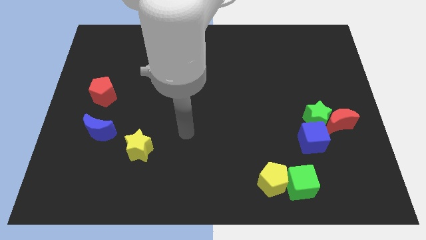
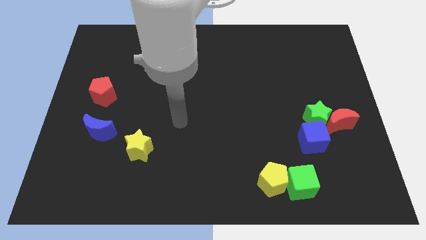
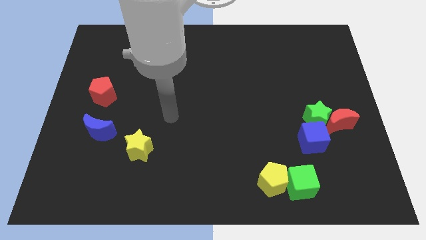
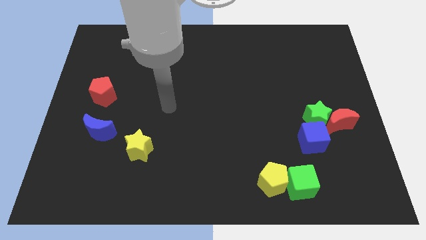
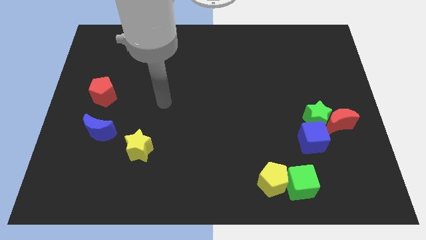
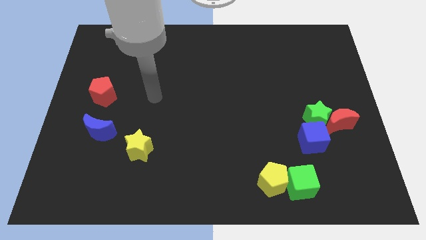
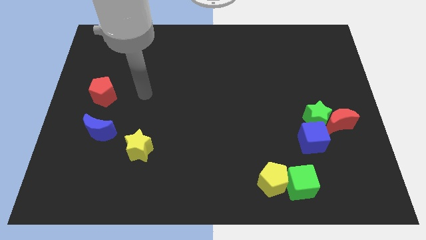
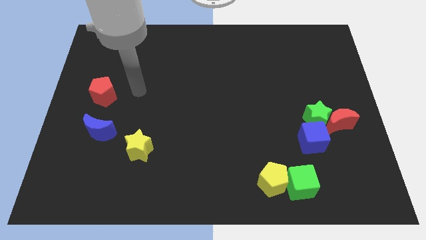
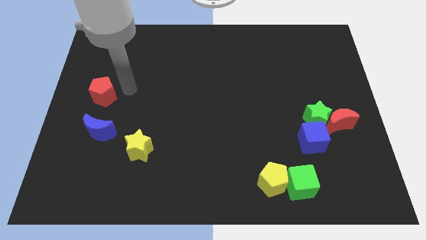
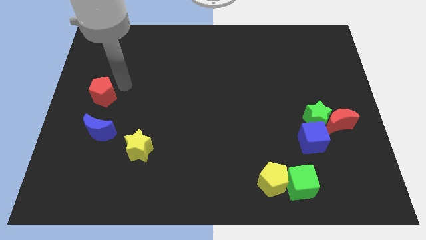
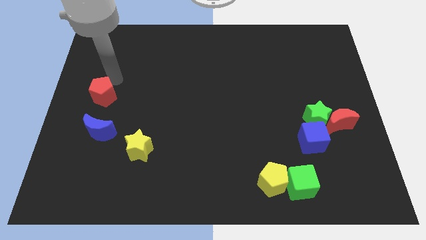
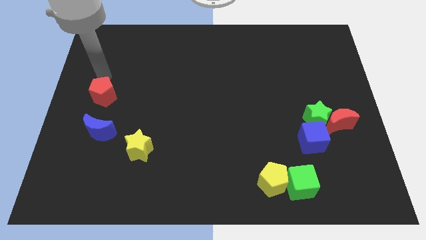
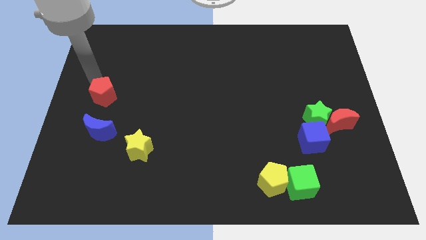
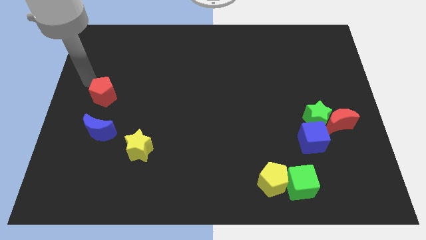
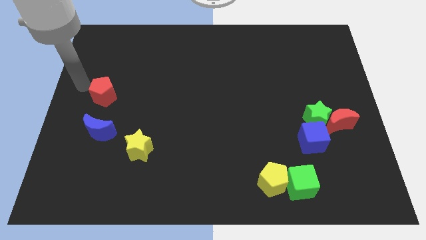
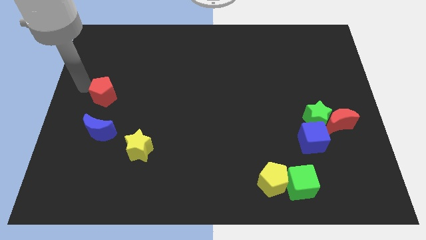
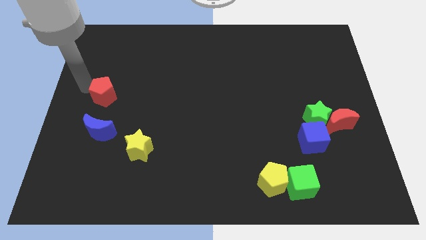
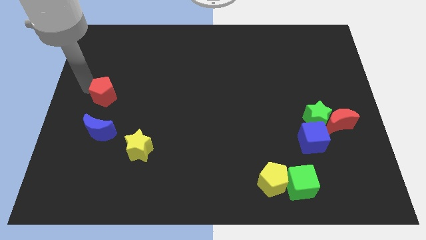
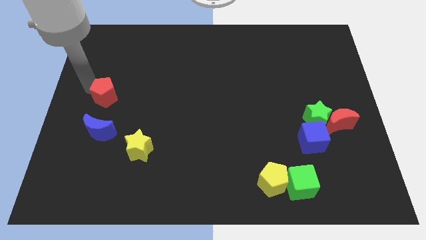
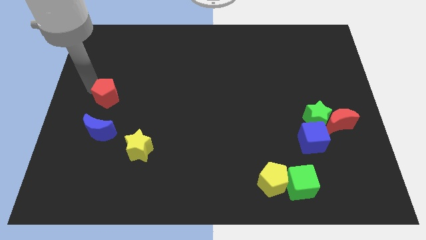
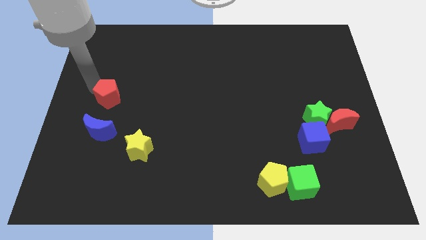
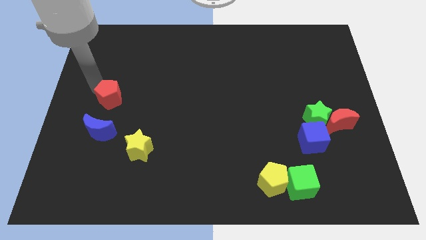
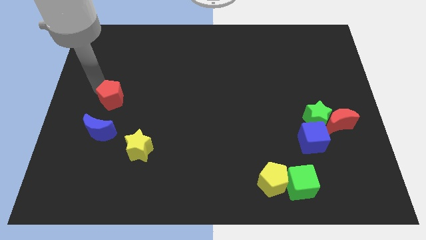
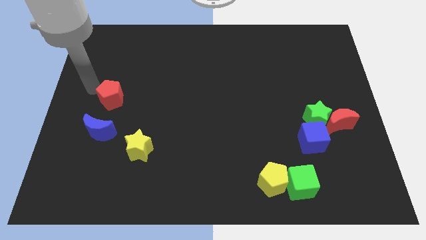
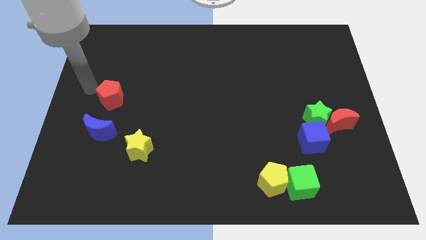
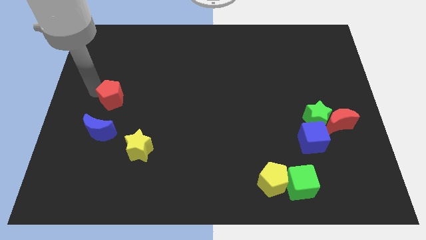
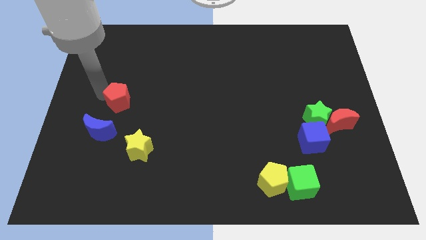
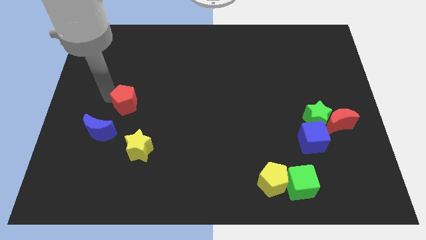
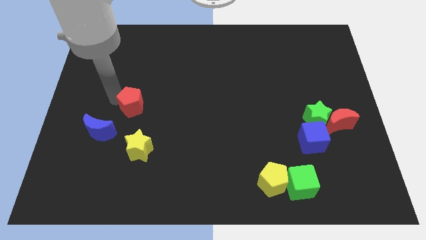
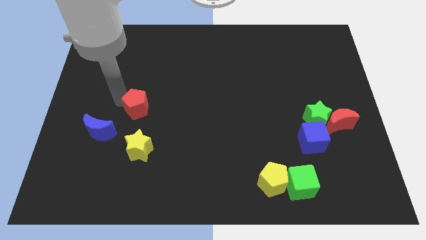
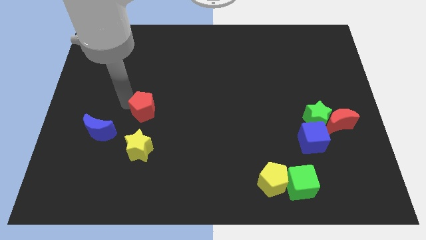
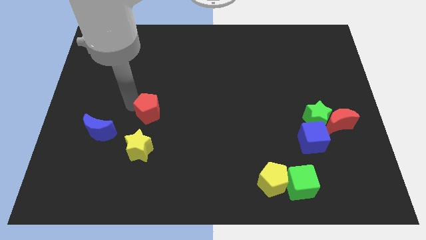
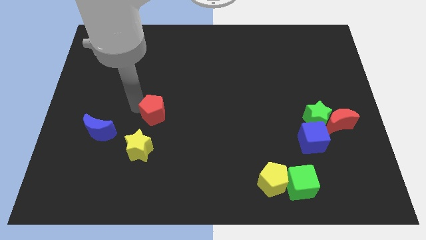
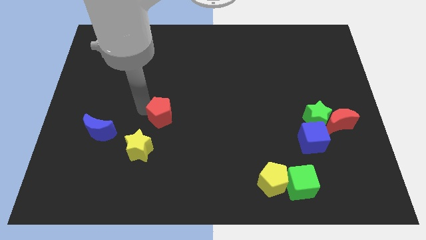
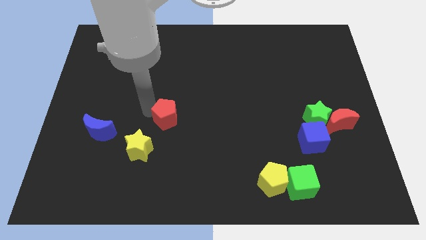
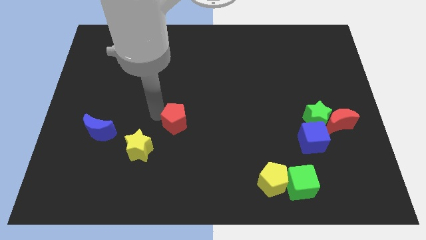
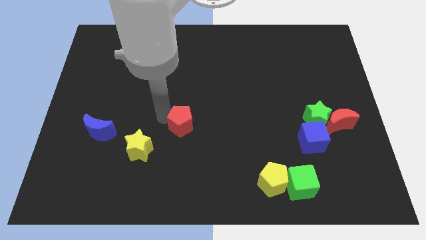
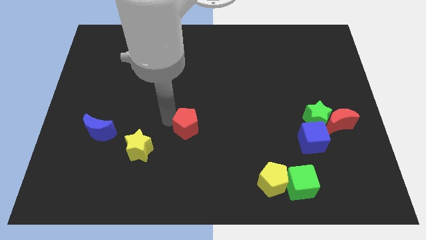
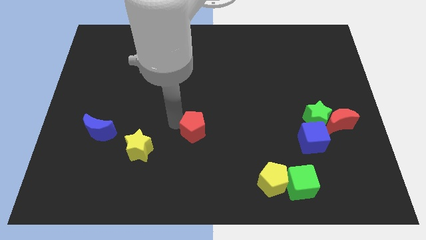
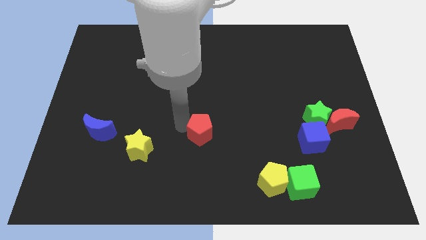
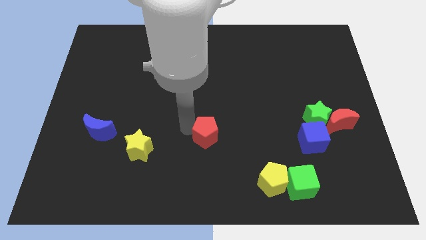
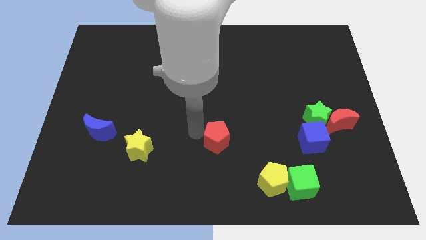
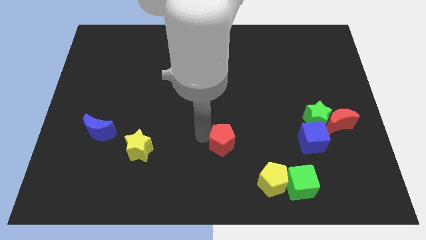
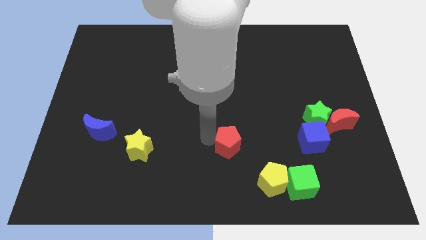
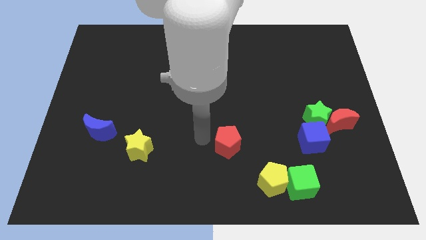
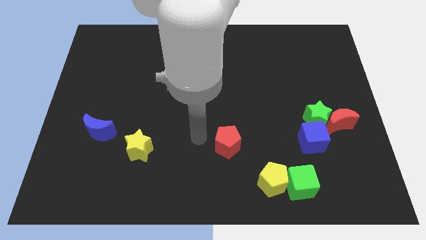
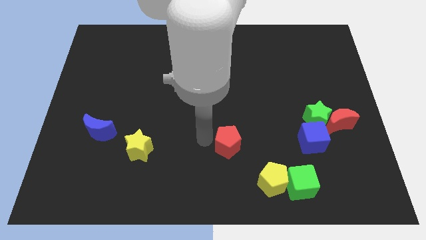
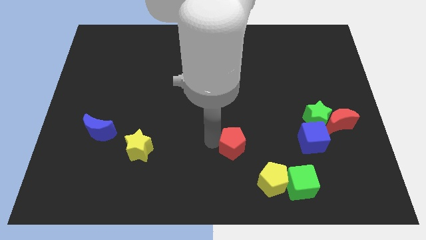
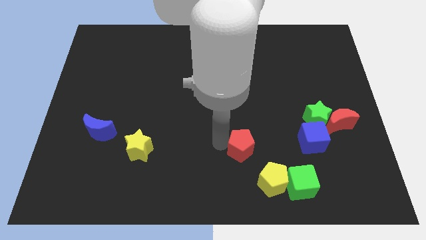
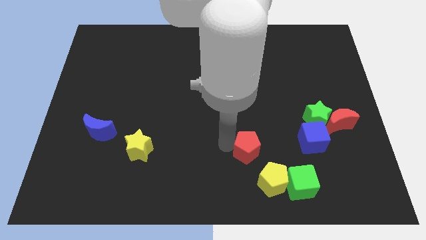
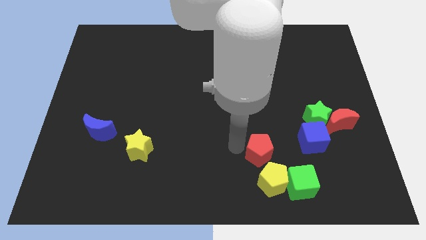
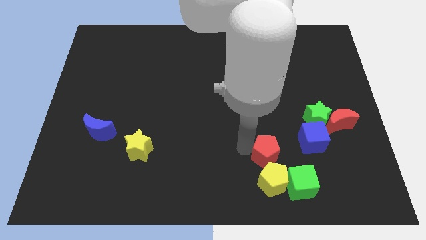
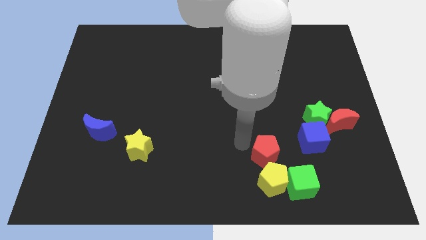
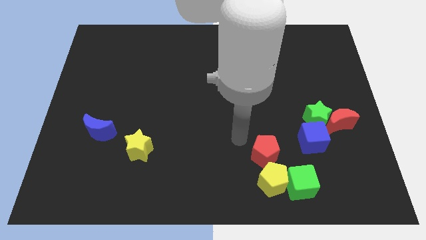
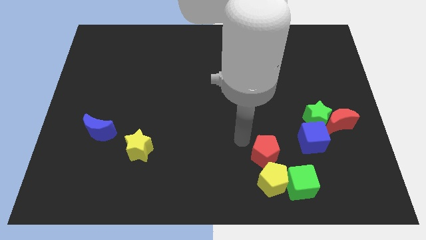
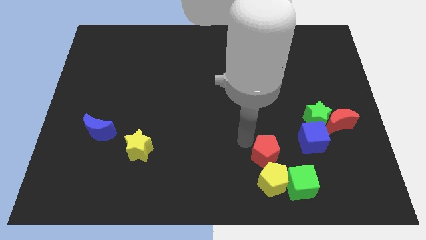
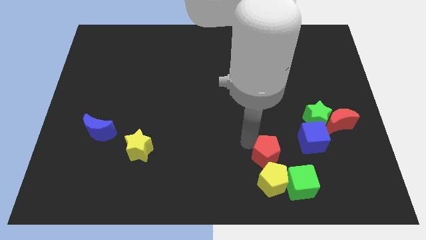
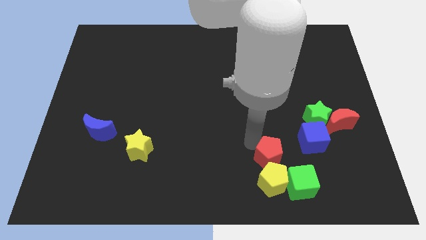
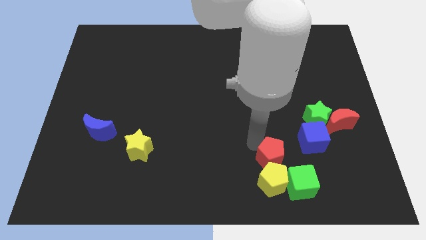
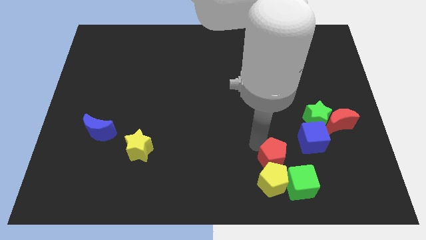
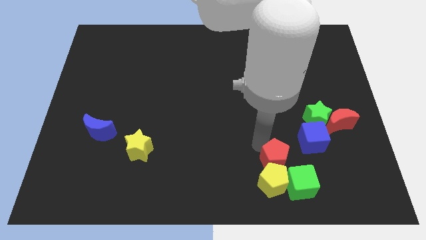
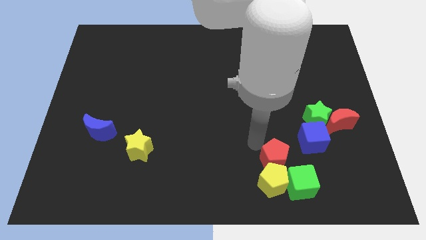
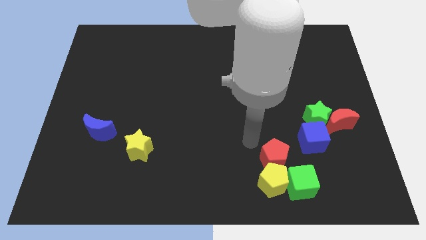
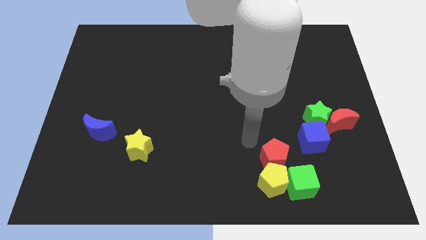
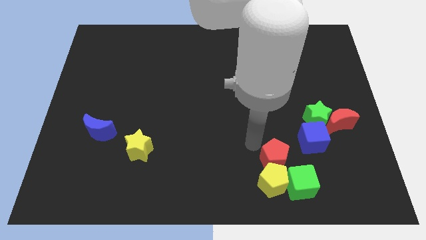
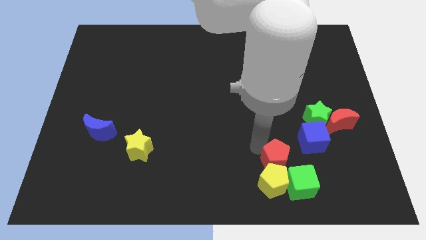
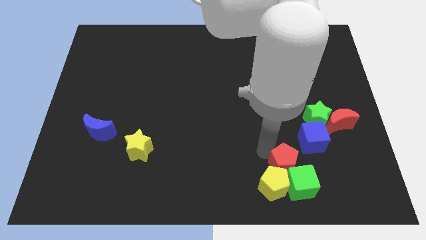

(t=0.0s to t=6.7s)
slide the red pentagon to the green cube
